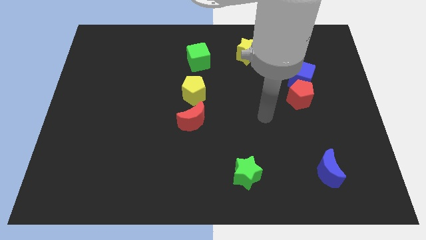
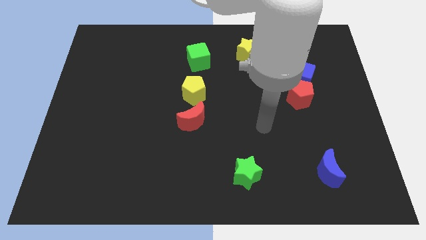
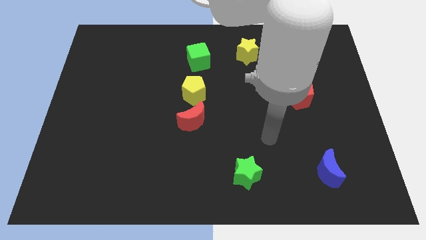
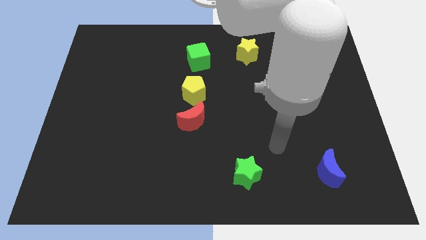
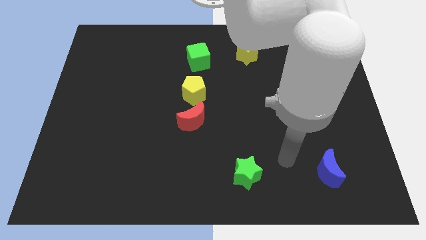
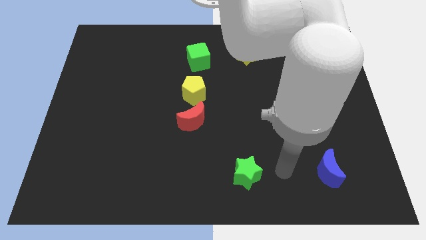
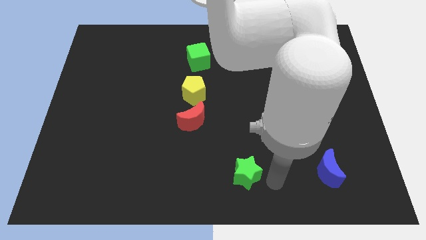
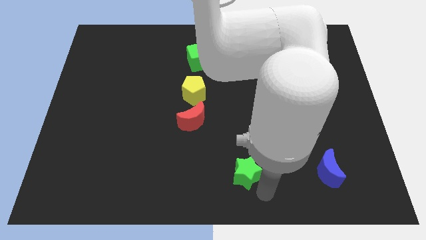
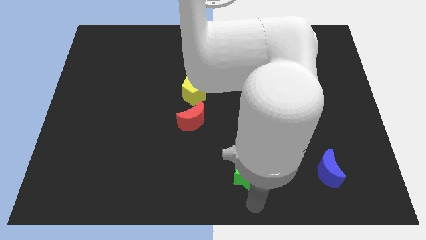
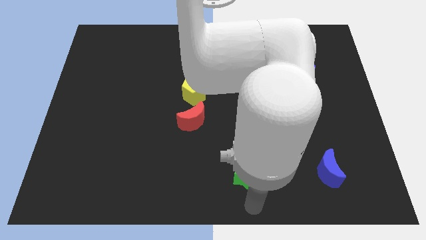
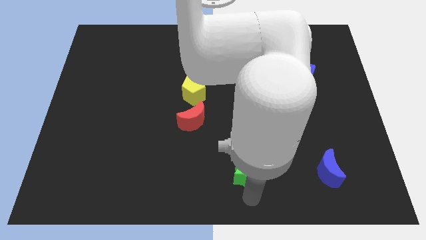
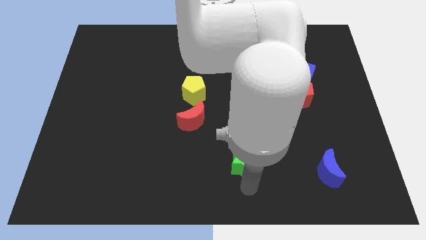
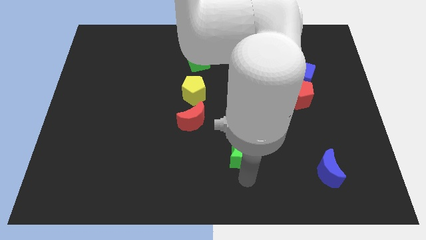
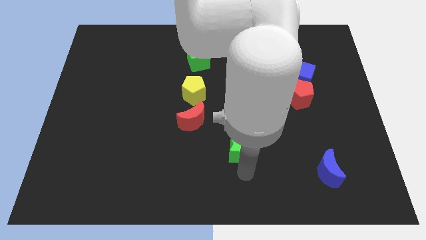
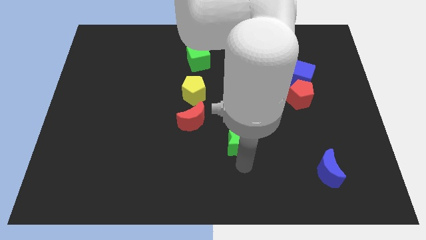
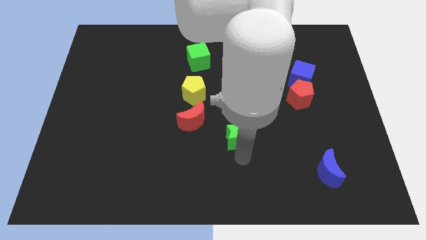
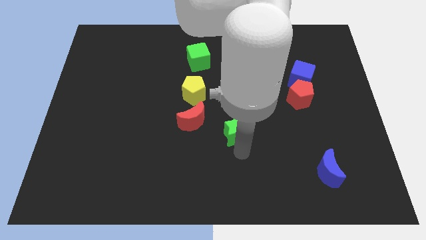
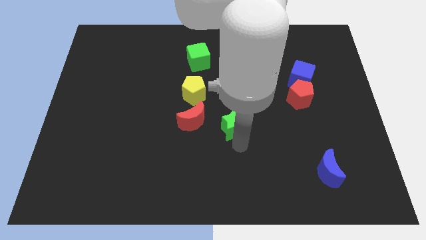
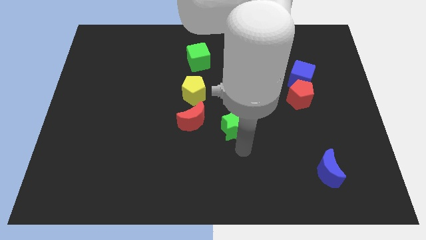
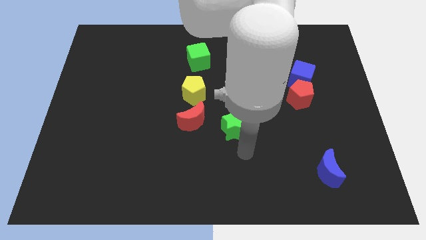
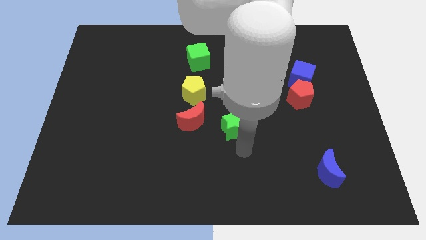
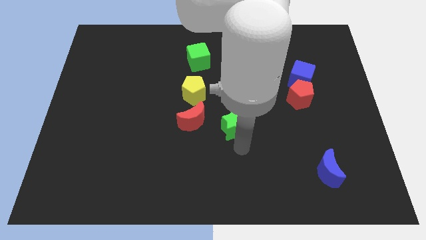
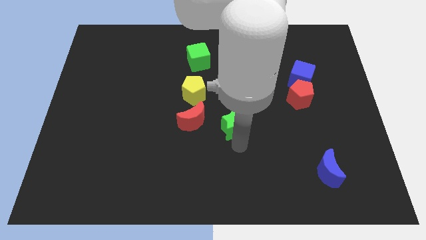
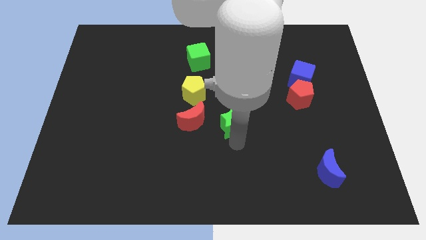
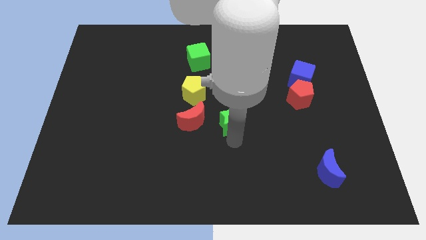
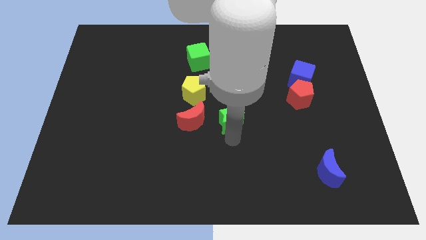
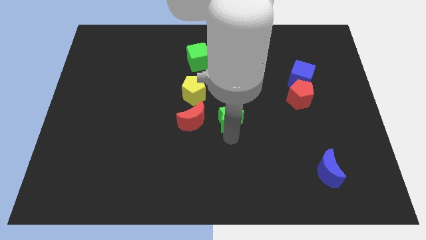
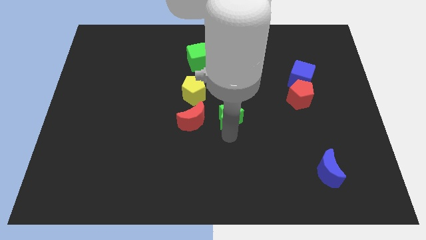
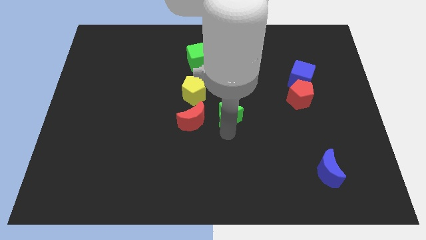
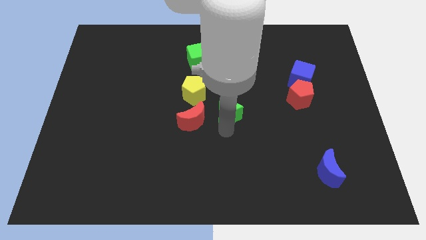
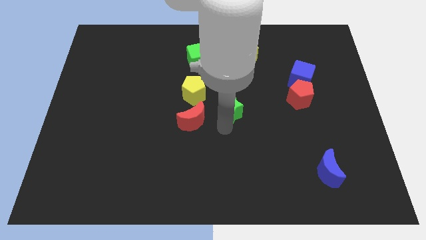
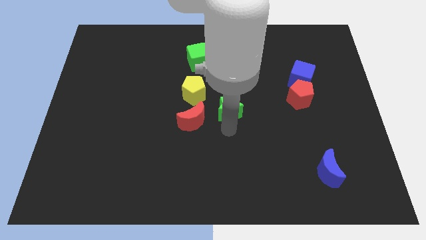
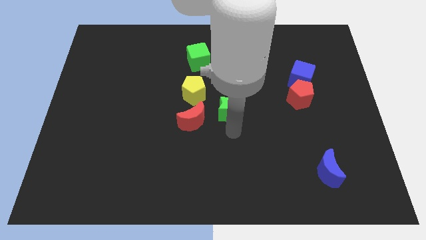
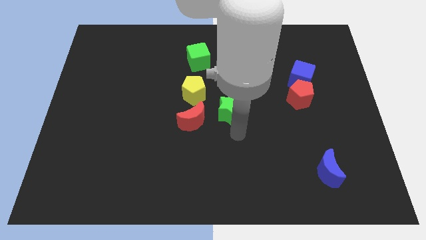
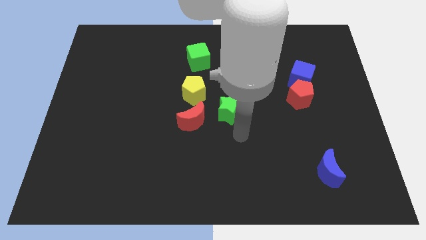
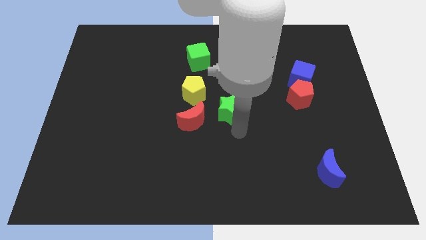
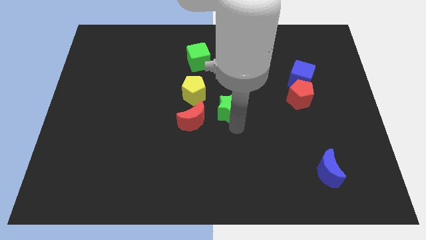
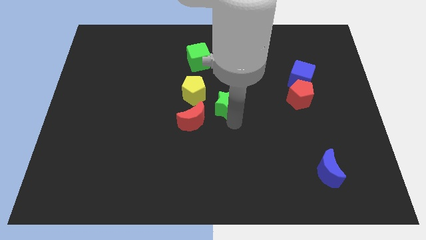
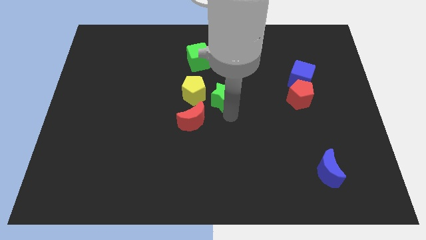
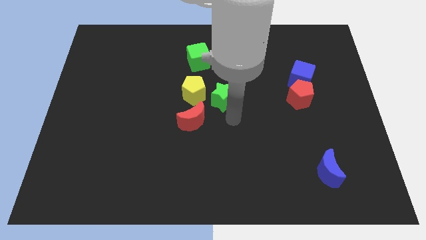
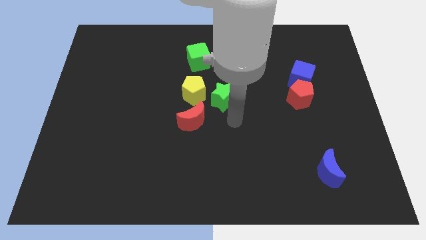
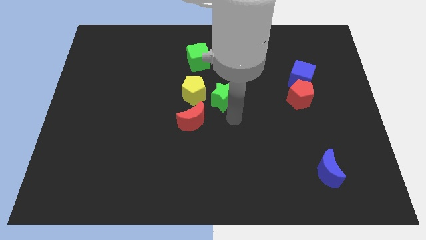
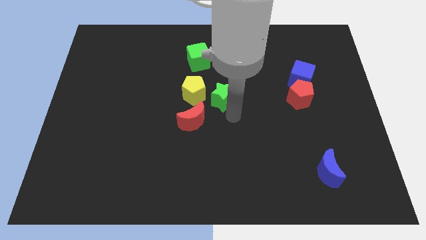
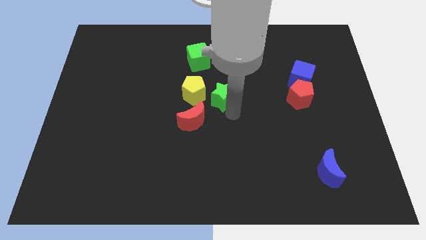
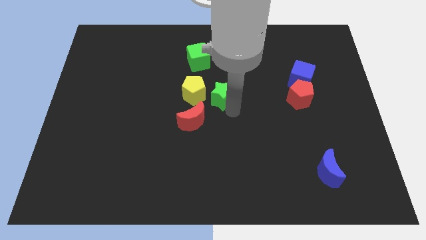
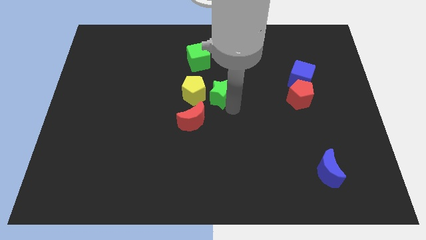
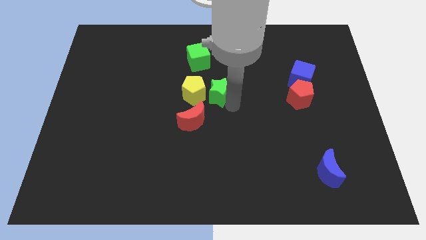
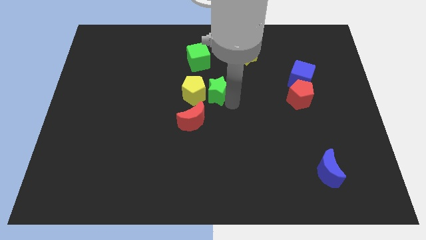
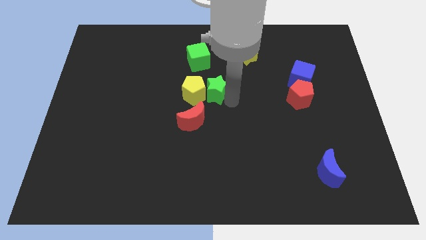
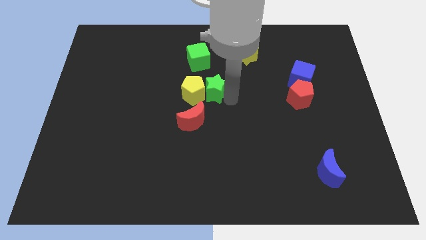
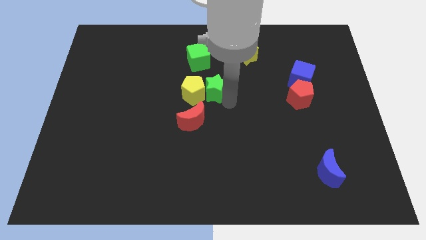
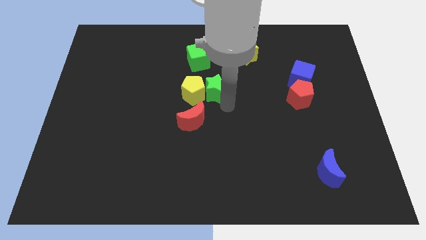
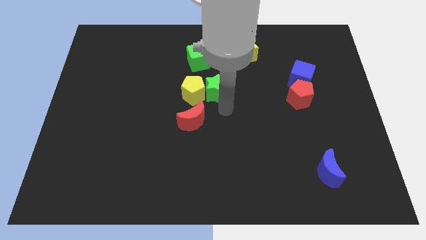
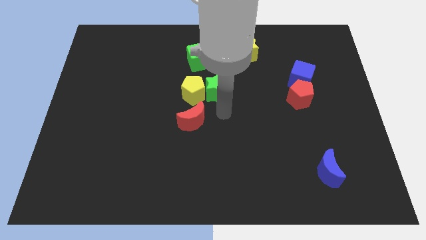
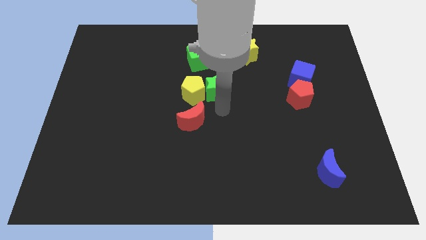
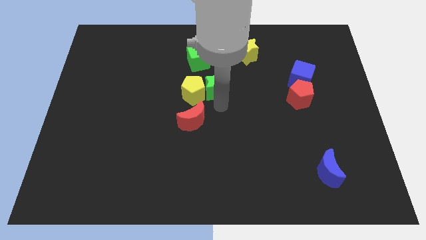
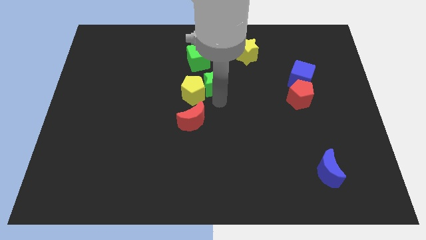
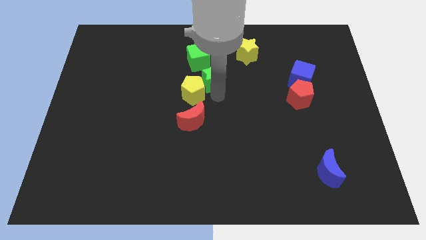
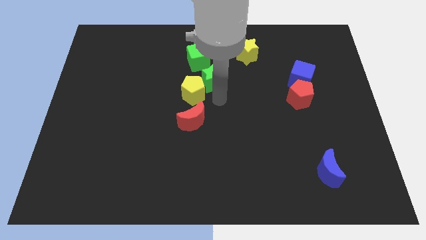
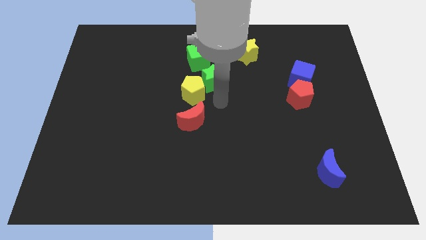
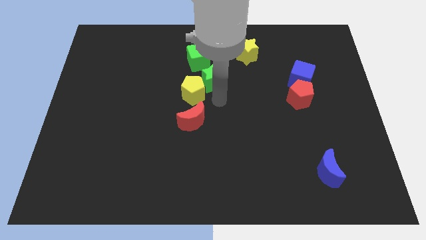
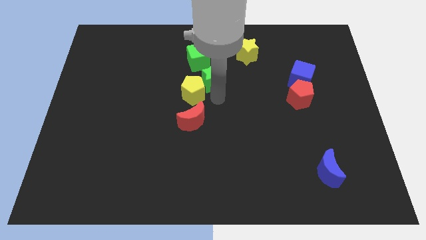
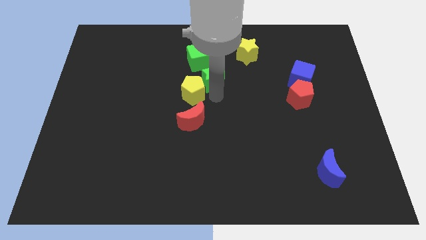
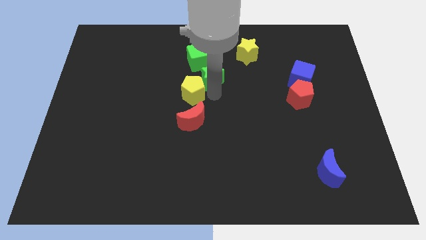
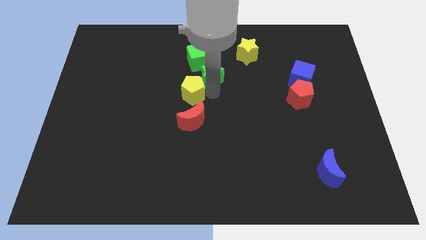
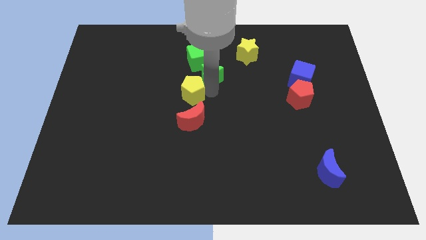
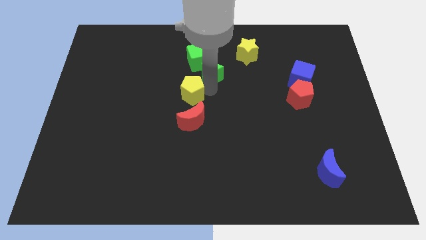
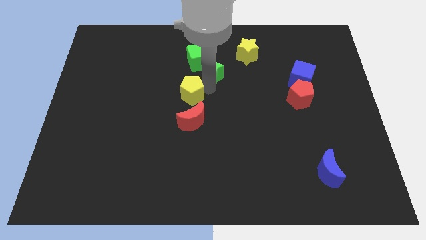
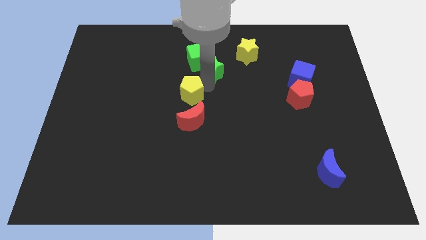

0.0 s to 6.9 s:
put the green star next to the green cube

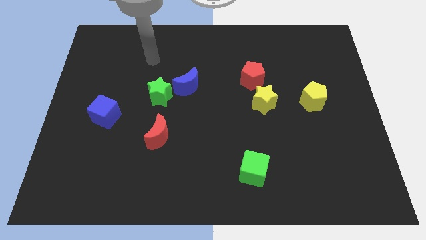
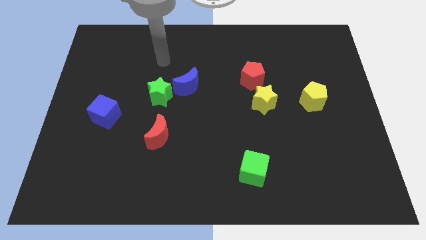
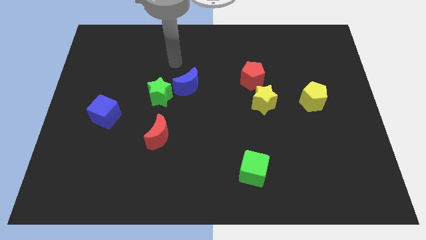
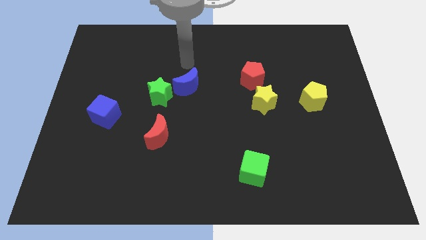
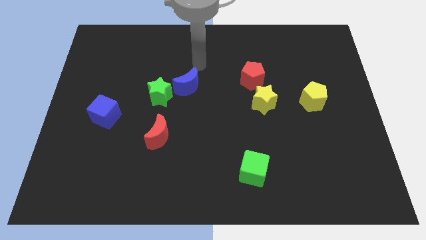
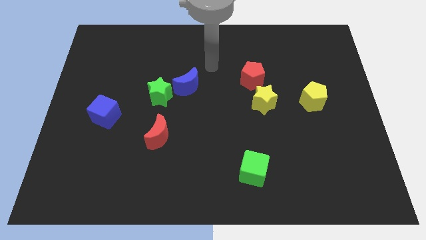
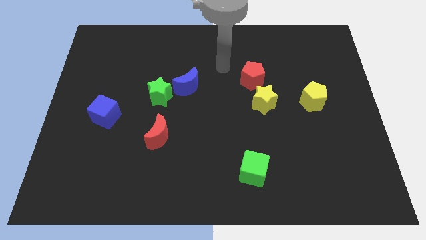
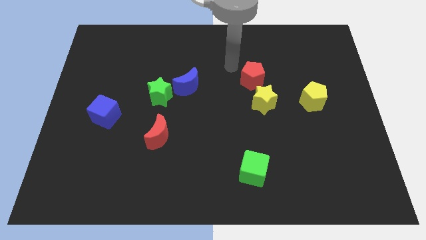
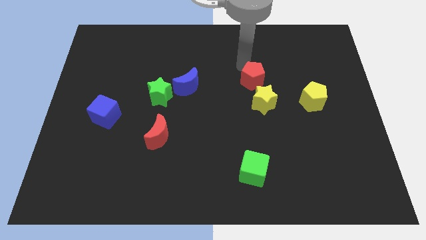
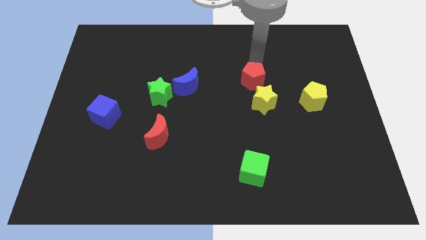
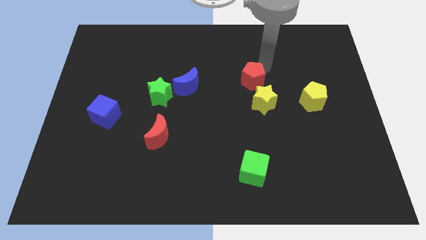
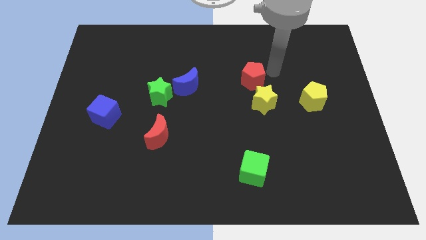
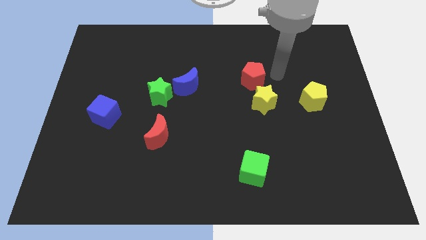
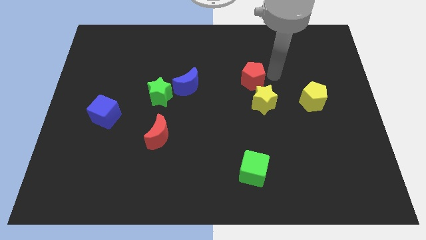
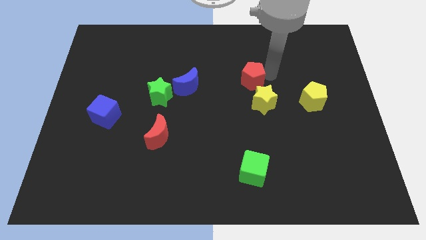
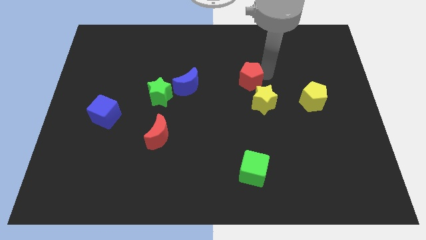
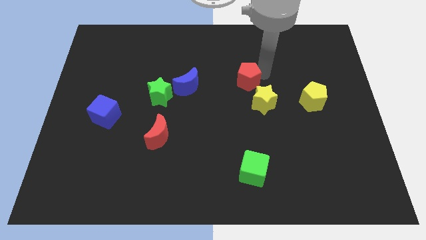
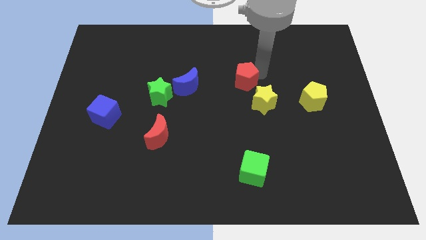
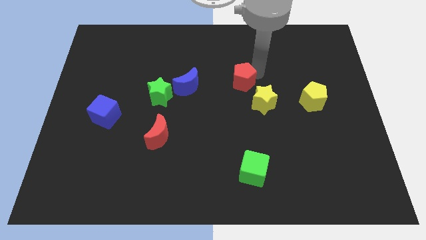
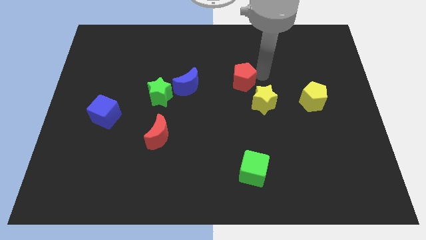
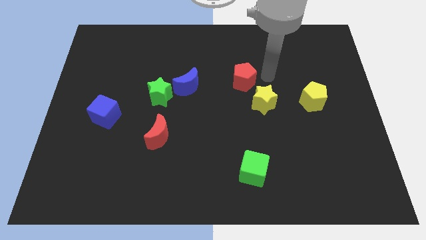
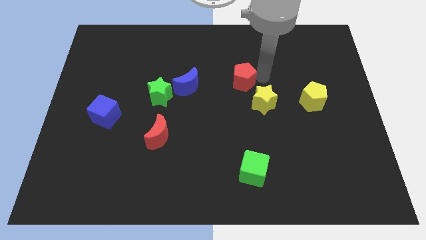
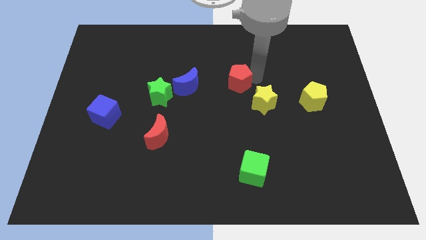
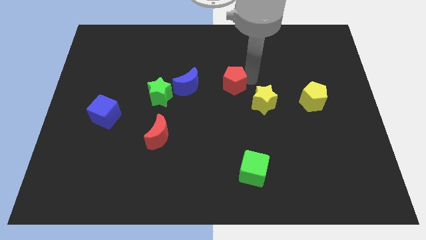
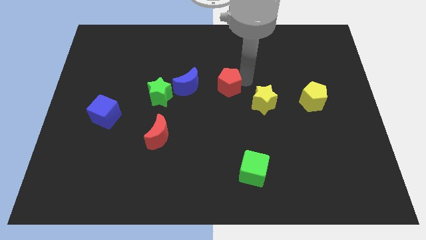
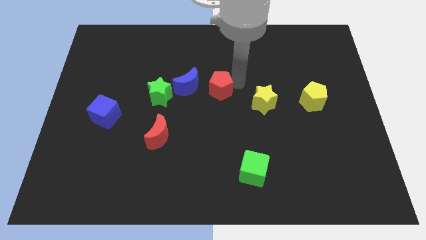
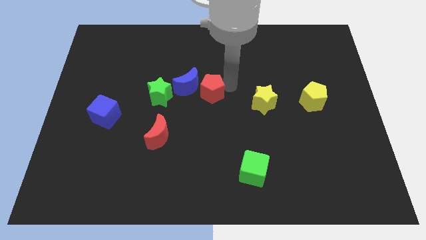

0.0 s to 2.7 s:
push the red pentagon to the blue moon
